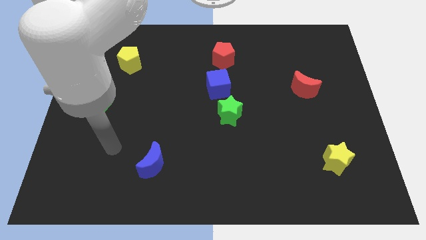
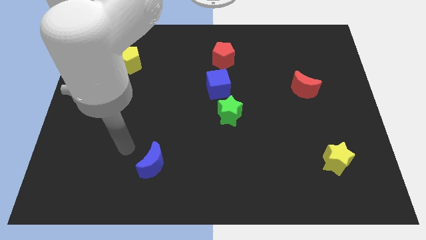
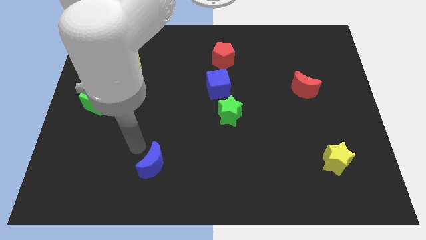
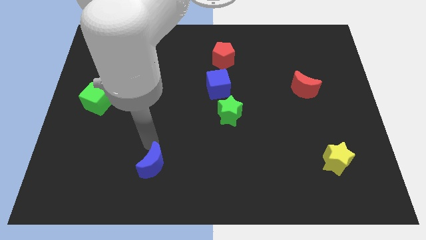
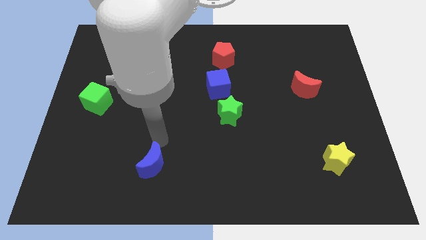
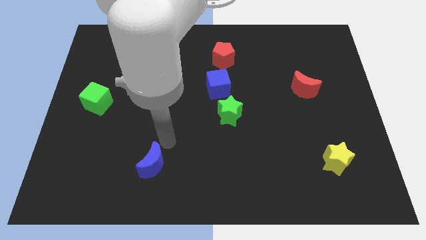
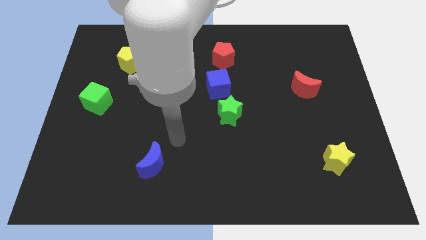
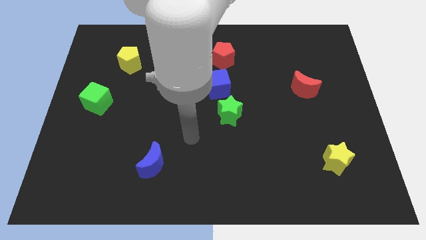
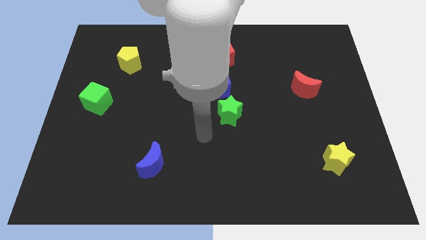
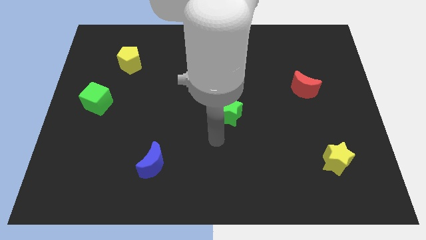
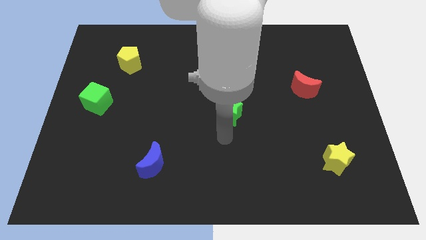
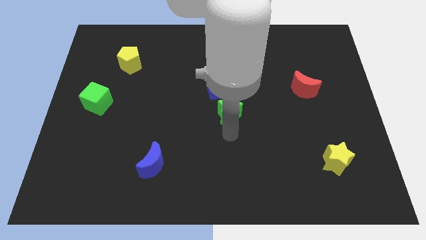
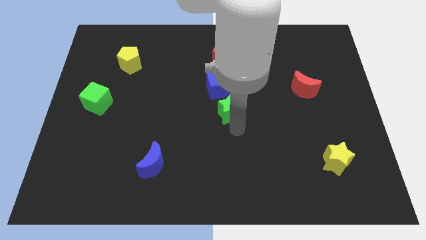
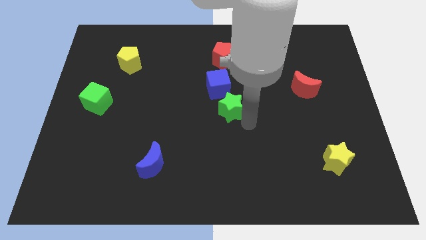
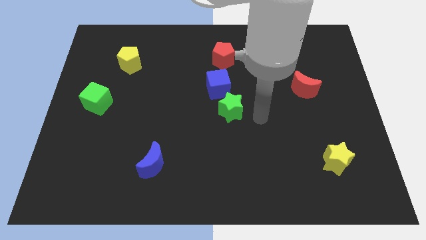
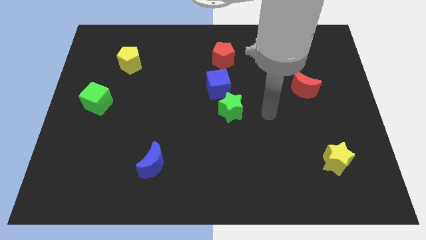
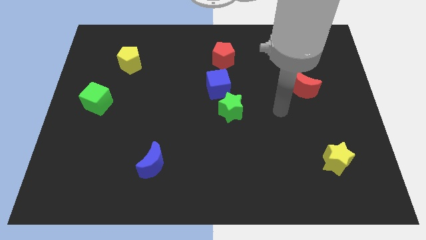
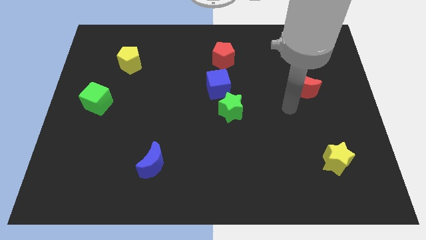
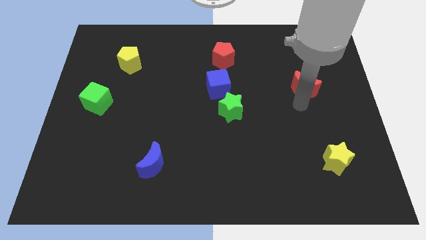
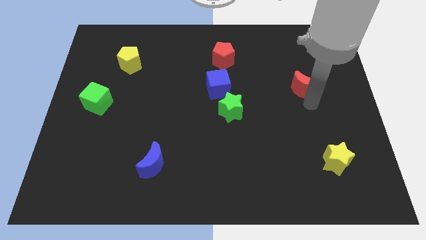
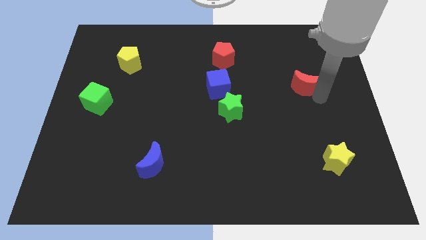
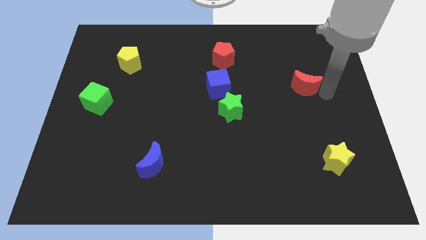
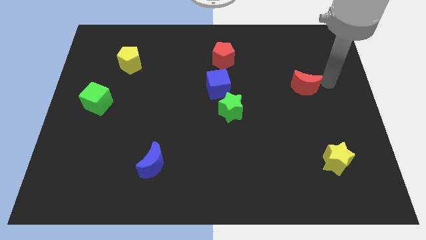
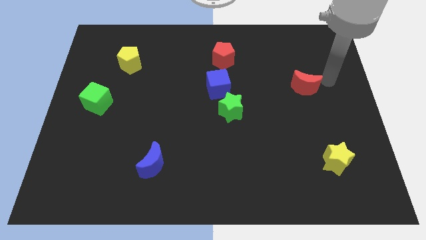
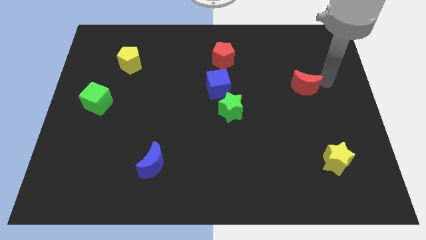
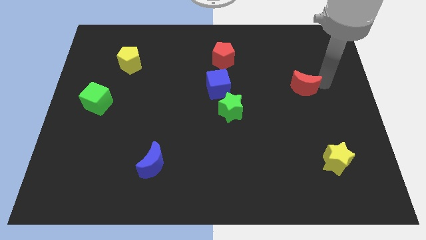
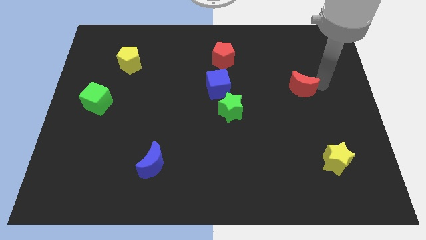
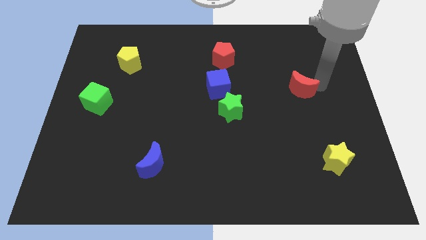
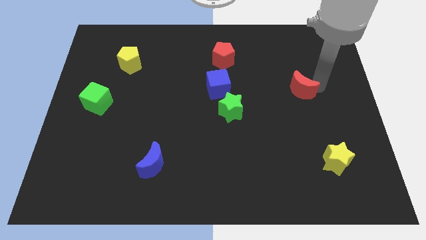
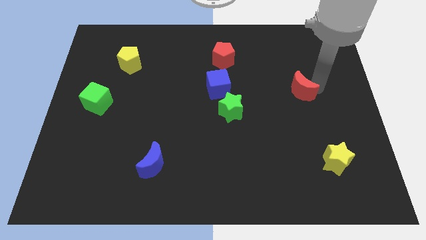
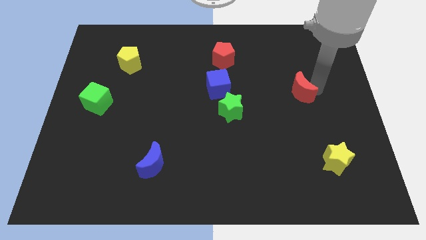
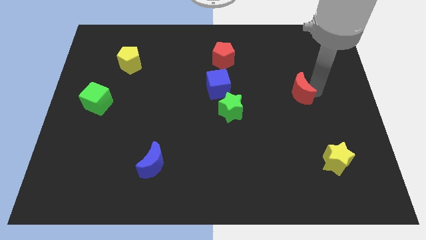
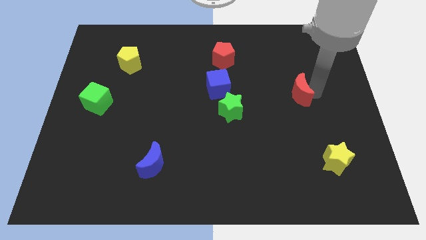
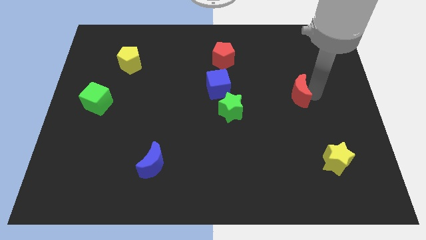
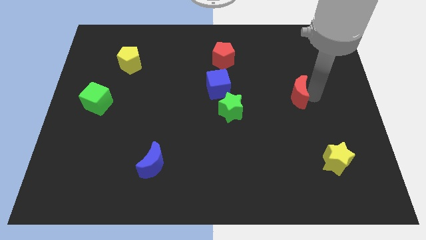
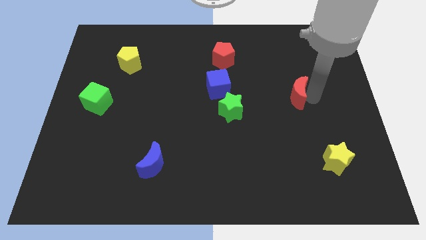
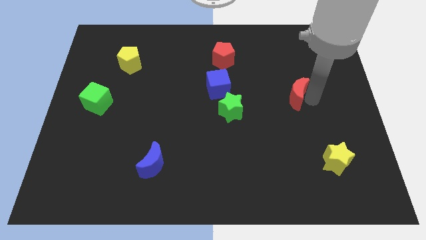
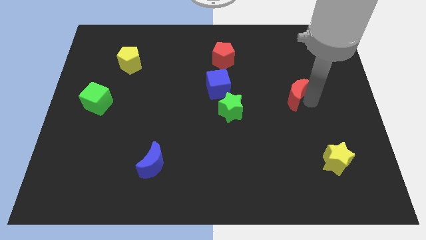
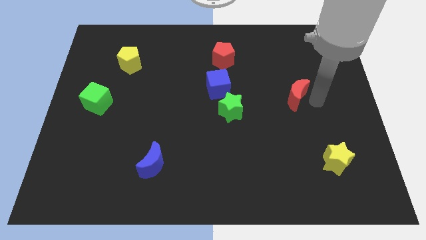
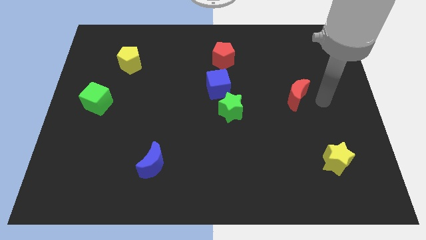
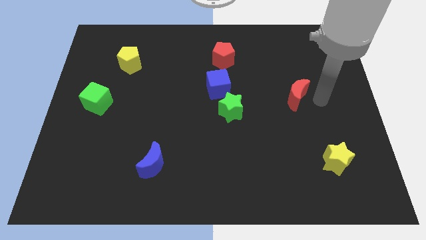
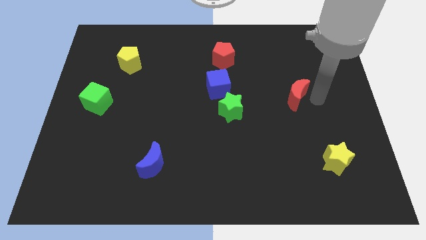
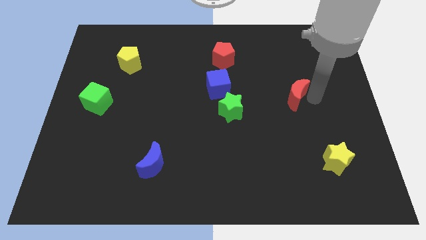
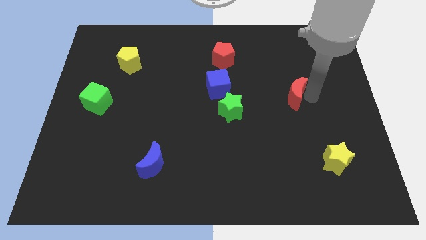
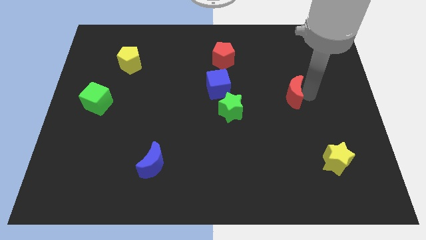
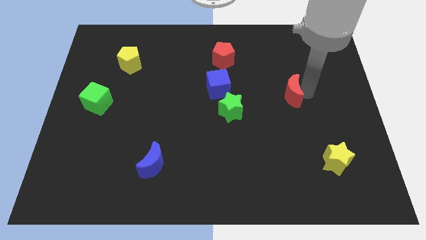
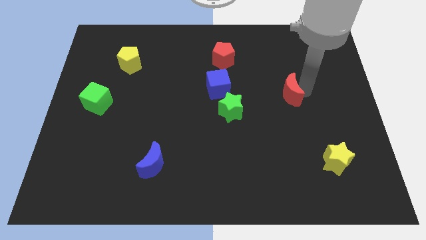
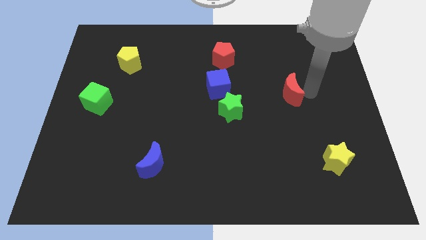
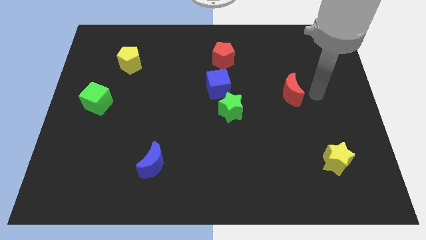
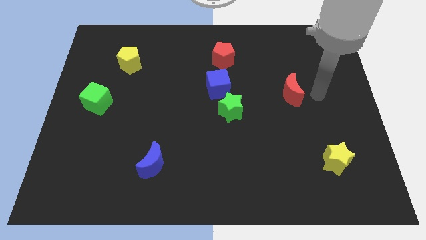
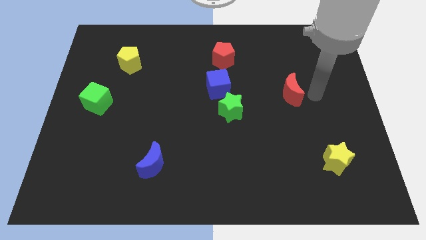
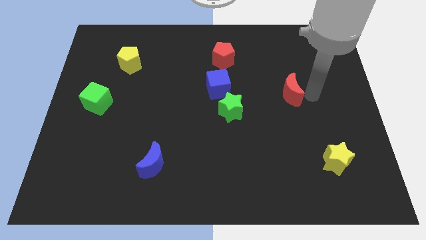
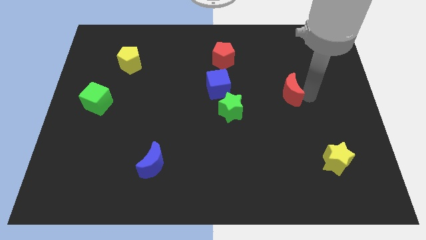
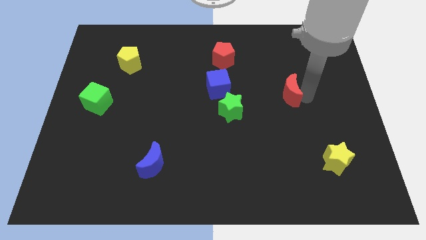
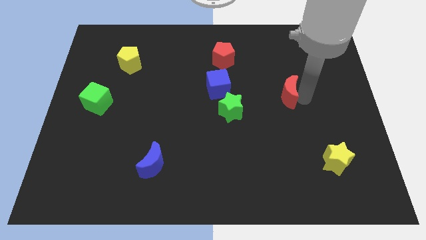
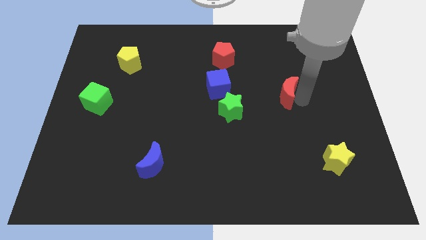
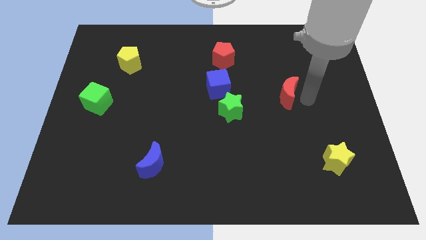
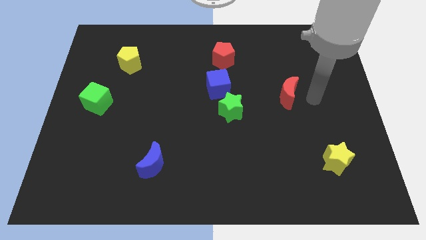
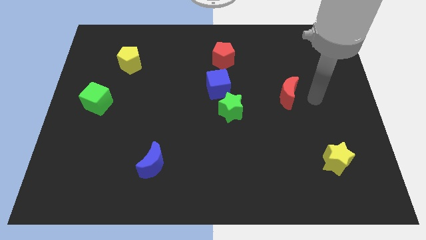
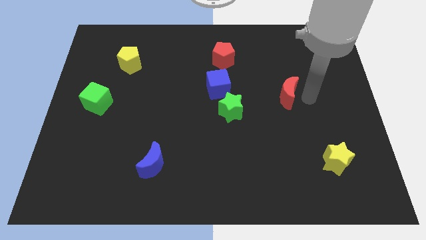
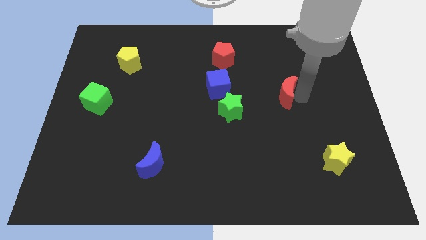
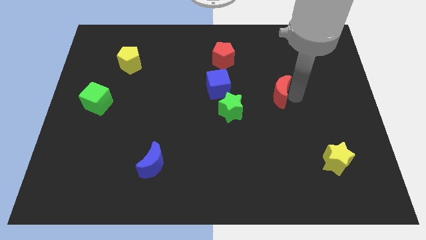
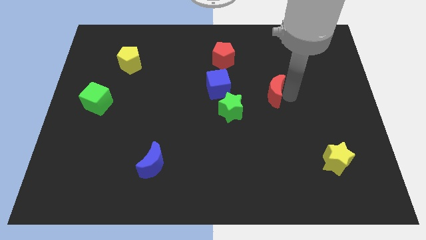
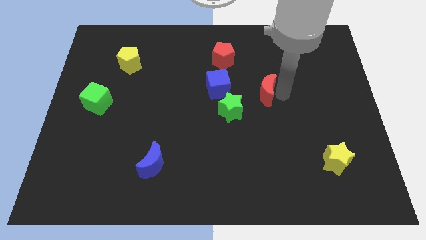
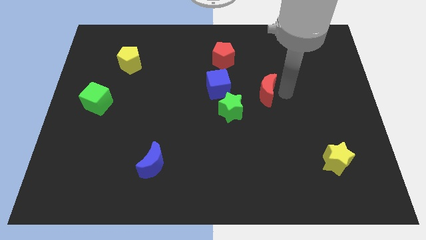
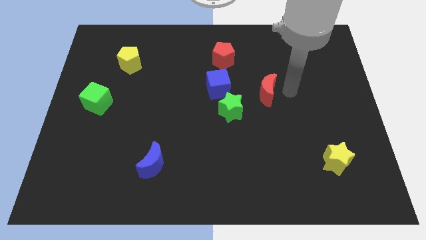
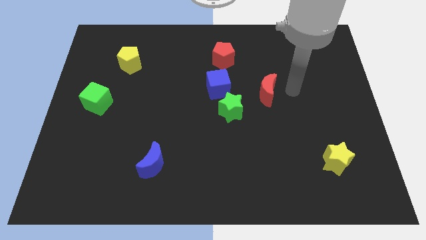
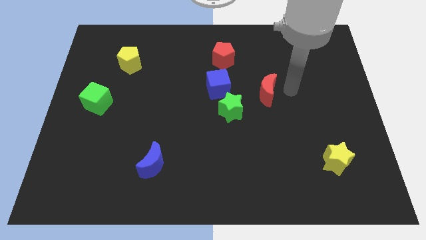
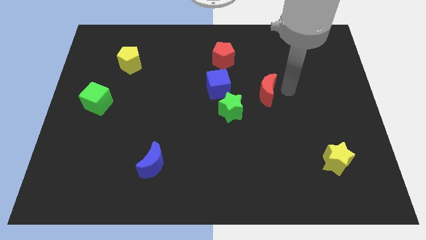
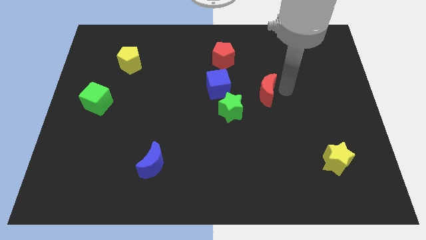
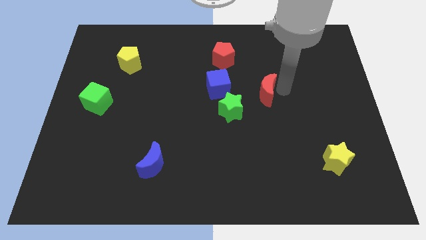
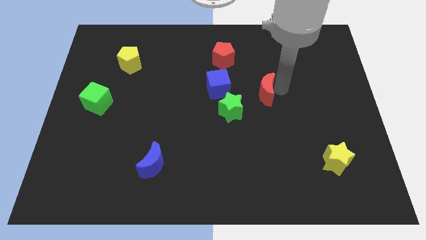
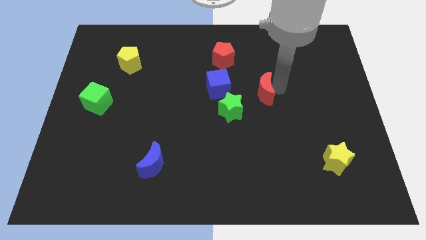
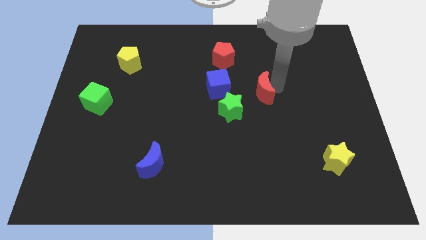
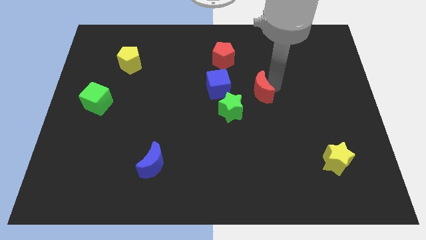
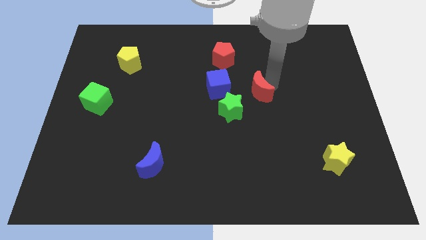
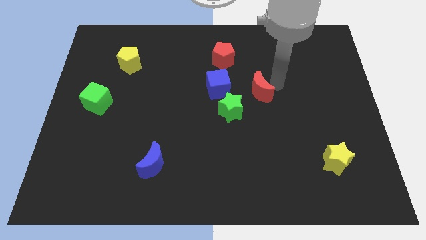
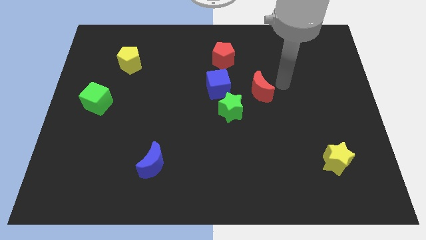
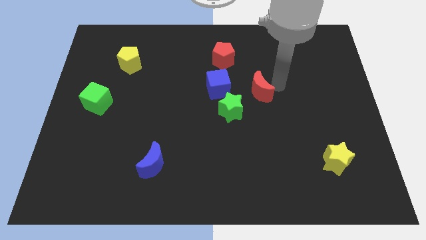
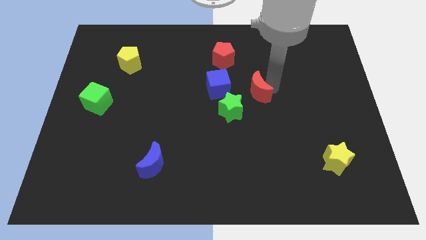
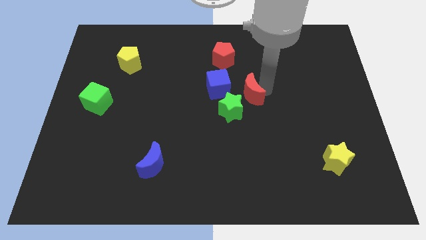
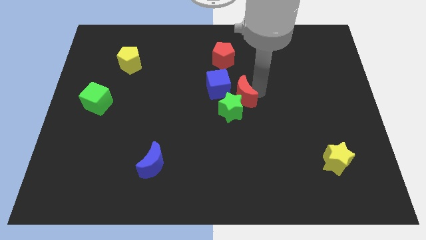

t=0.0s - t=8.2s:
put the red moon to the bottom side of the red pentagon
